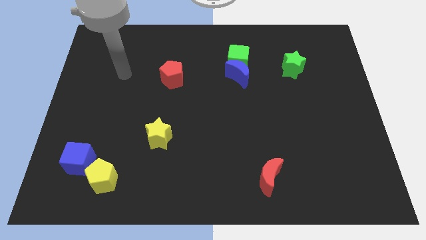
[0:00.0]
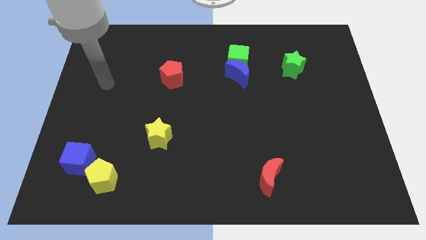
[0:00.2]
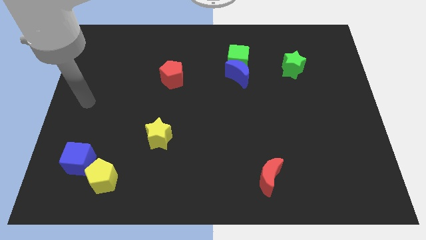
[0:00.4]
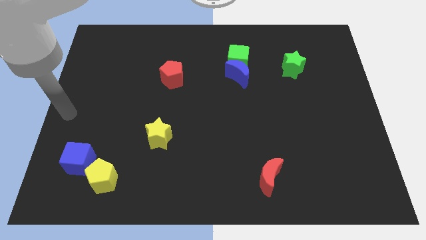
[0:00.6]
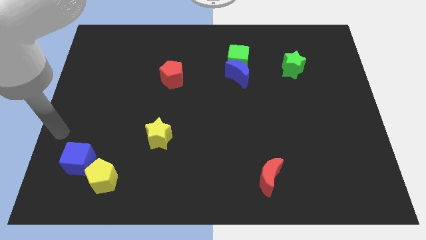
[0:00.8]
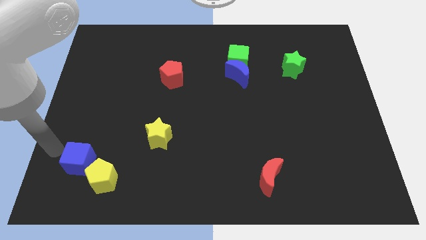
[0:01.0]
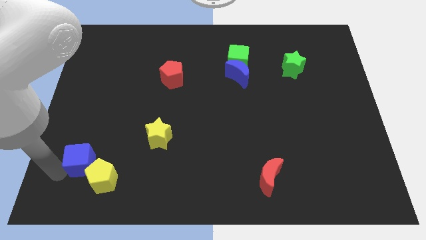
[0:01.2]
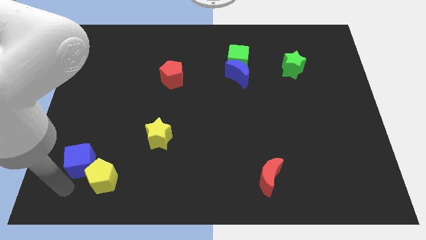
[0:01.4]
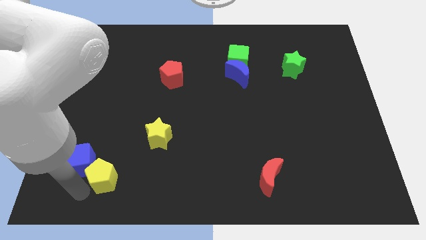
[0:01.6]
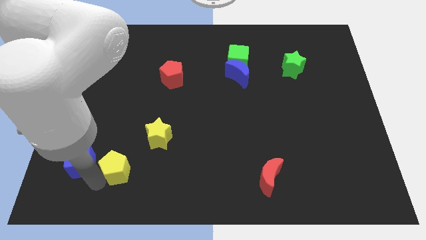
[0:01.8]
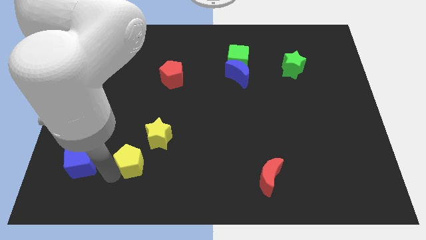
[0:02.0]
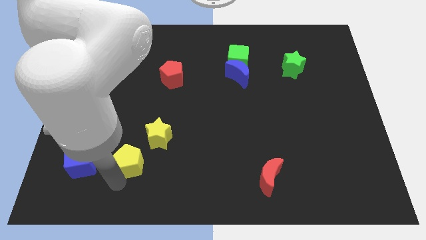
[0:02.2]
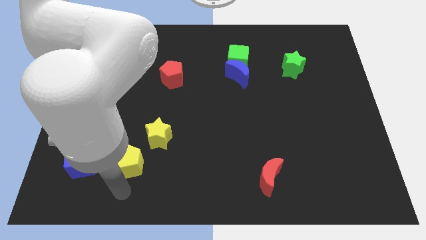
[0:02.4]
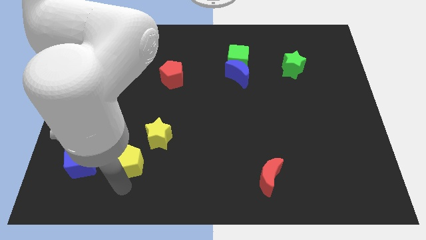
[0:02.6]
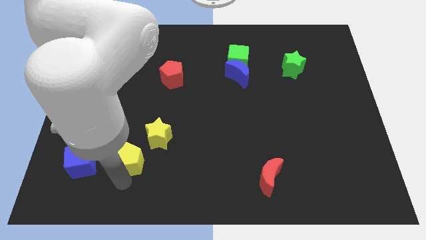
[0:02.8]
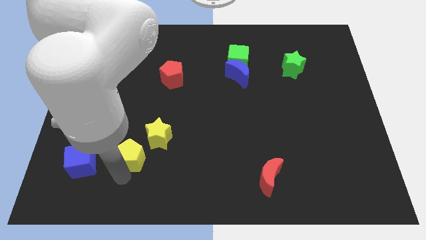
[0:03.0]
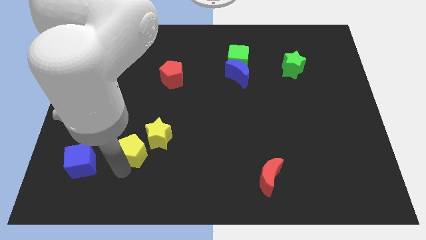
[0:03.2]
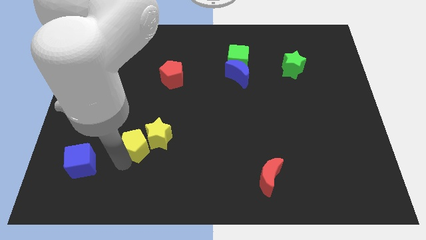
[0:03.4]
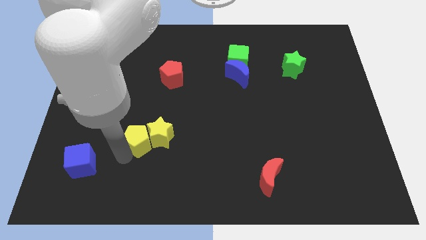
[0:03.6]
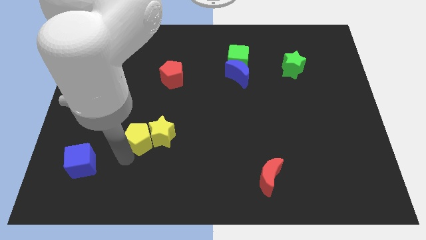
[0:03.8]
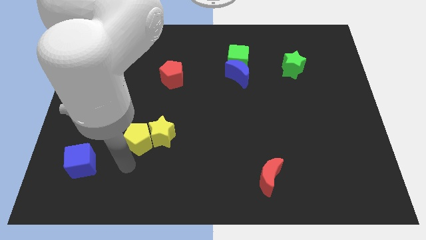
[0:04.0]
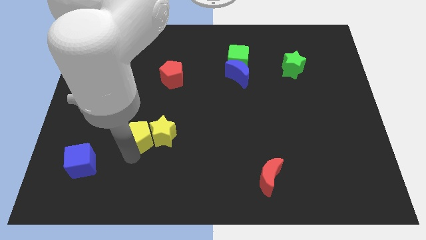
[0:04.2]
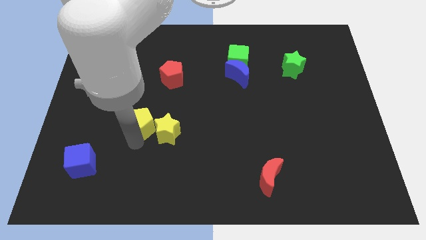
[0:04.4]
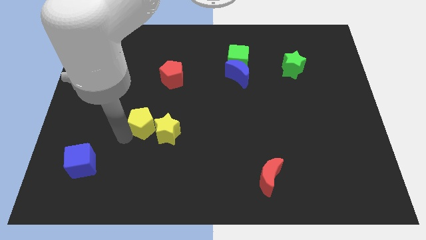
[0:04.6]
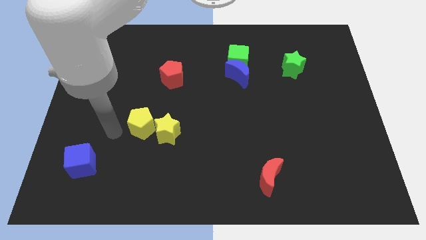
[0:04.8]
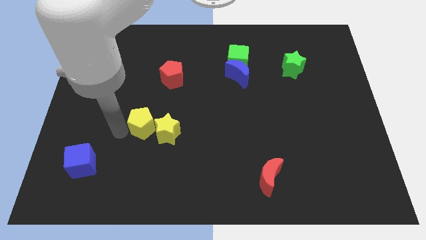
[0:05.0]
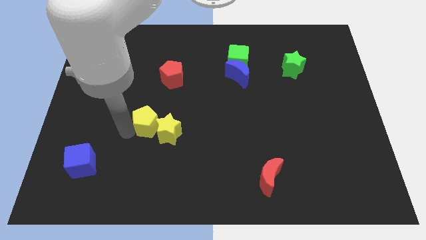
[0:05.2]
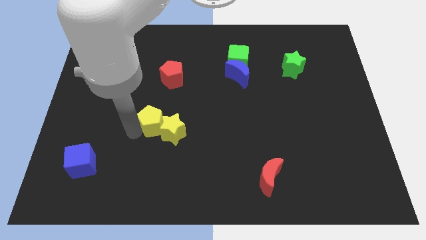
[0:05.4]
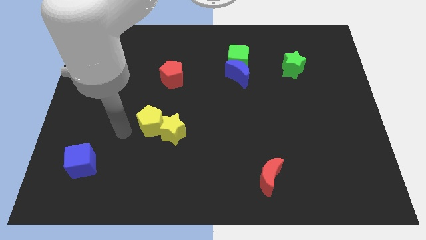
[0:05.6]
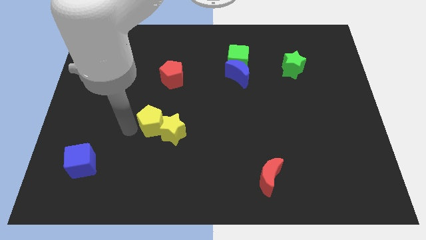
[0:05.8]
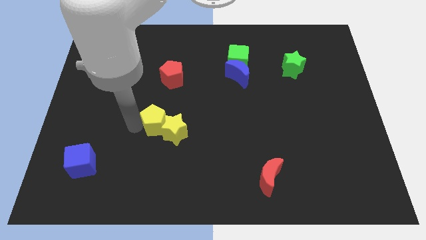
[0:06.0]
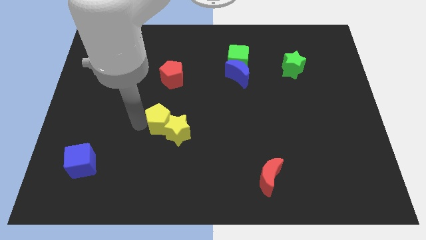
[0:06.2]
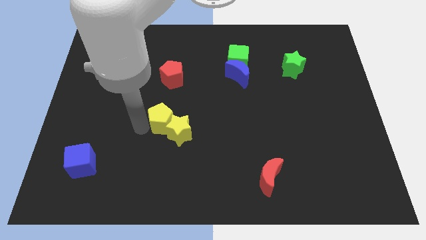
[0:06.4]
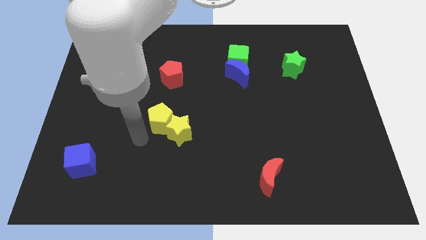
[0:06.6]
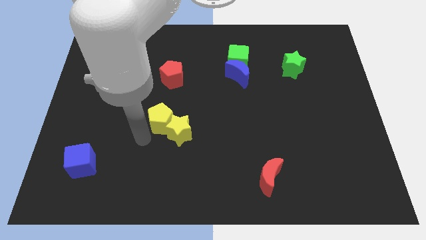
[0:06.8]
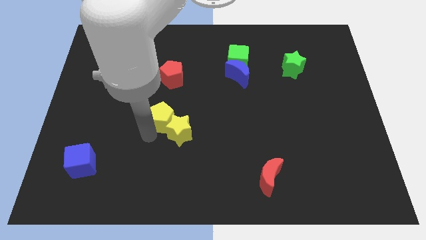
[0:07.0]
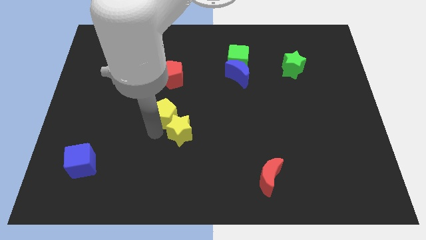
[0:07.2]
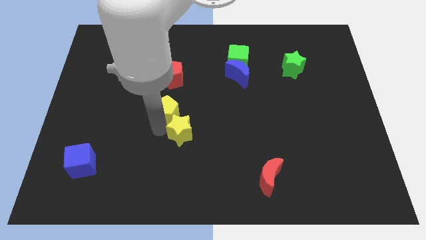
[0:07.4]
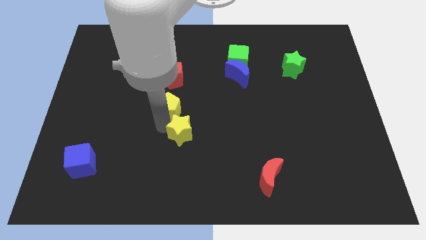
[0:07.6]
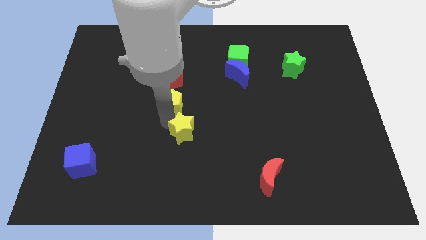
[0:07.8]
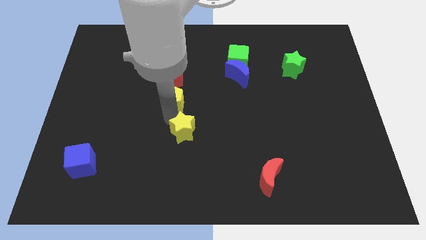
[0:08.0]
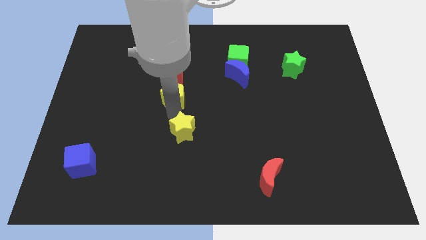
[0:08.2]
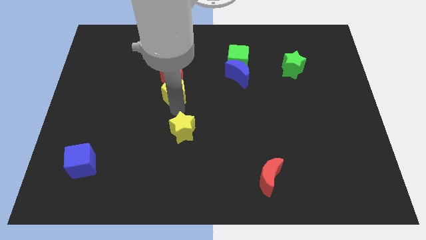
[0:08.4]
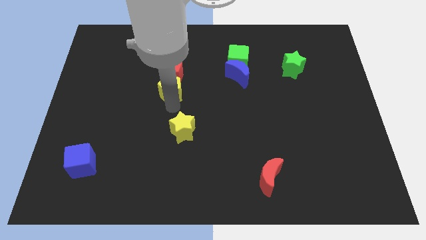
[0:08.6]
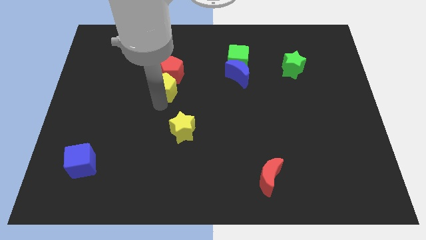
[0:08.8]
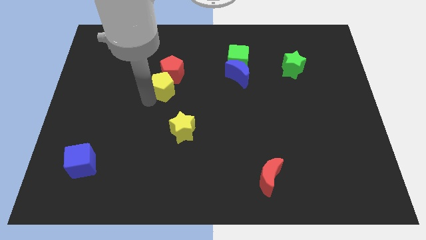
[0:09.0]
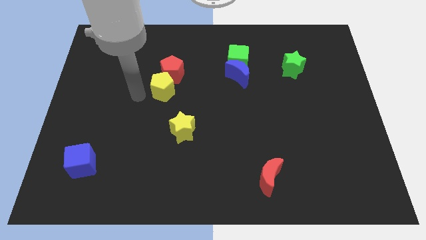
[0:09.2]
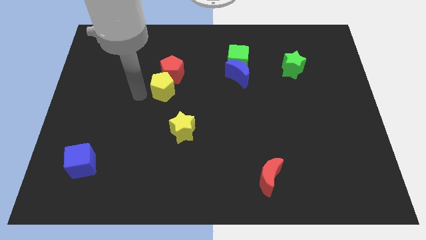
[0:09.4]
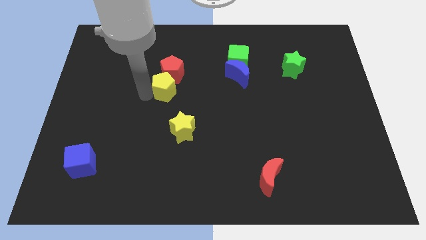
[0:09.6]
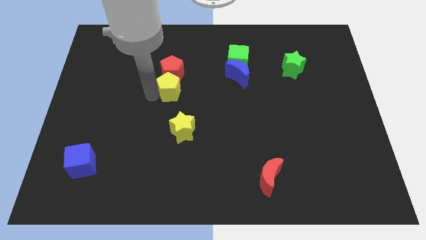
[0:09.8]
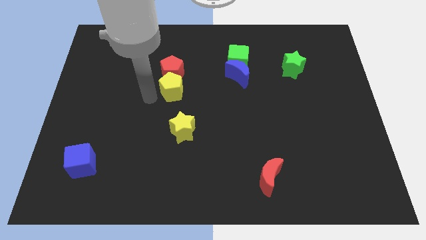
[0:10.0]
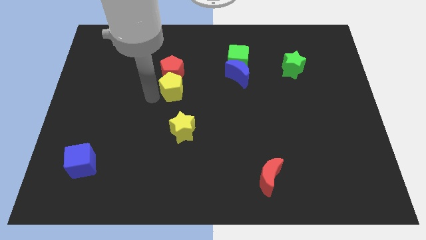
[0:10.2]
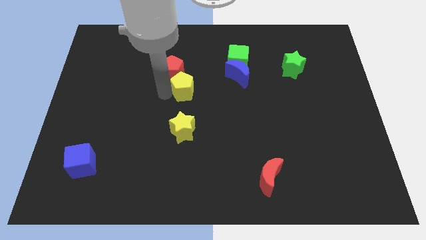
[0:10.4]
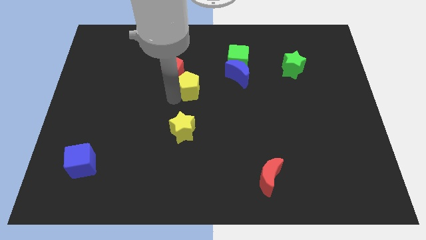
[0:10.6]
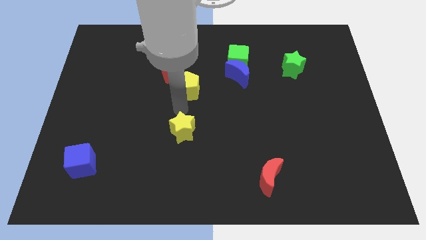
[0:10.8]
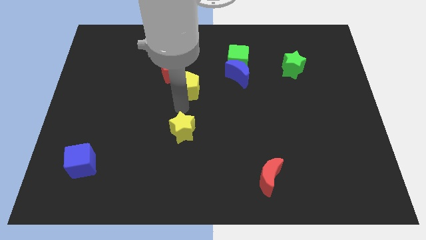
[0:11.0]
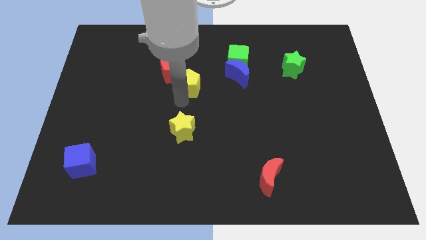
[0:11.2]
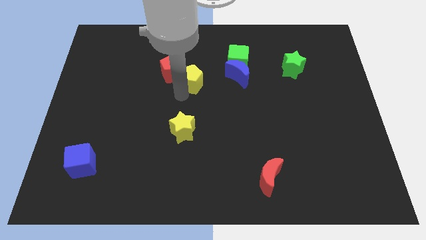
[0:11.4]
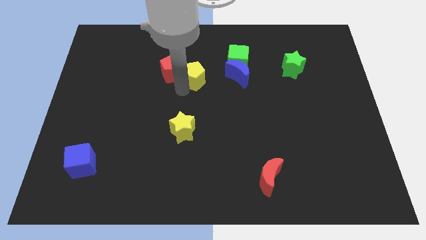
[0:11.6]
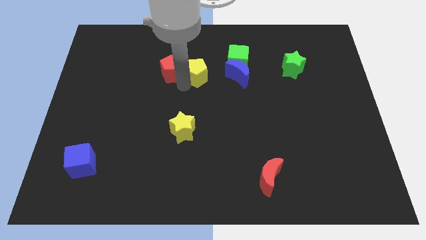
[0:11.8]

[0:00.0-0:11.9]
push the yellow pentagon to the left of the green cube

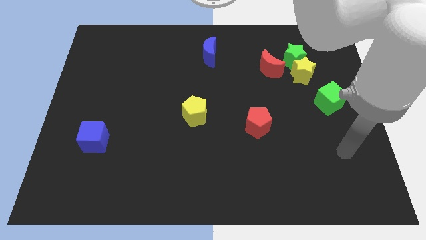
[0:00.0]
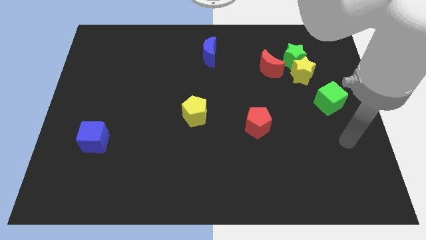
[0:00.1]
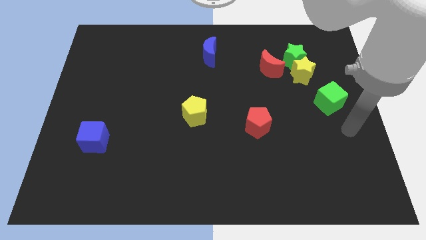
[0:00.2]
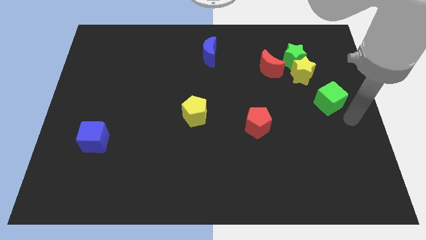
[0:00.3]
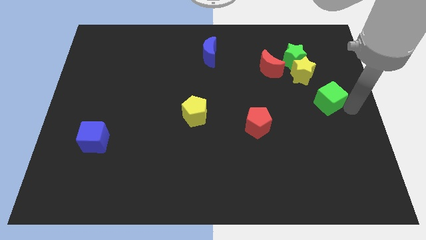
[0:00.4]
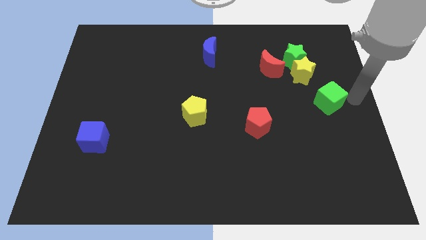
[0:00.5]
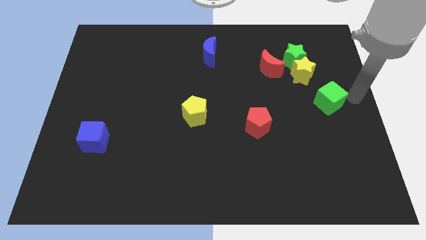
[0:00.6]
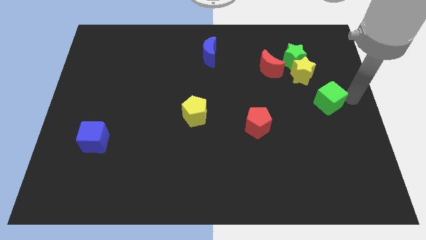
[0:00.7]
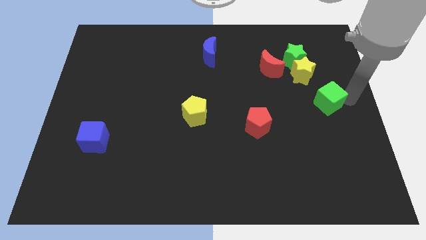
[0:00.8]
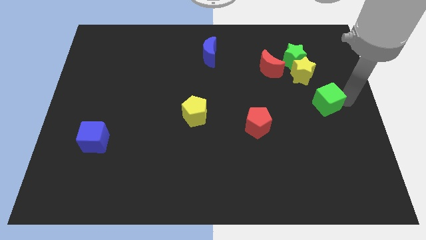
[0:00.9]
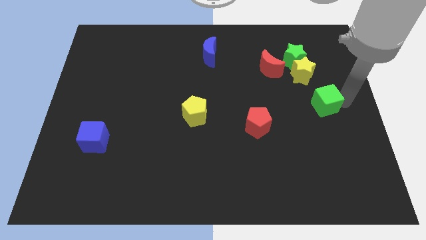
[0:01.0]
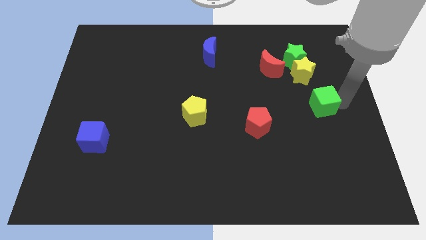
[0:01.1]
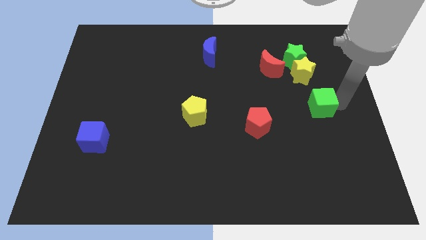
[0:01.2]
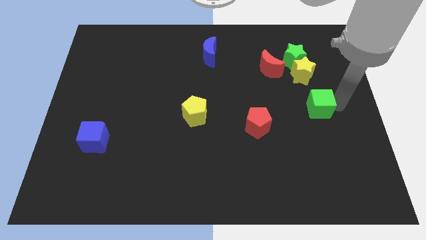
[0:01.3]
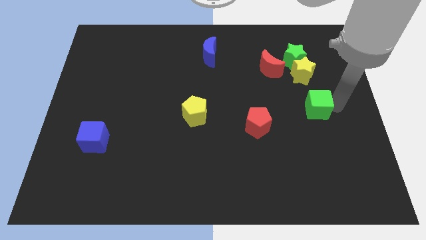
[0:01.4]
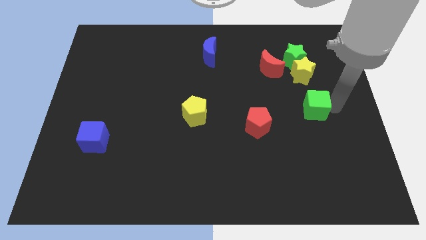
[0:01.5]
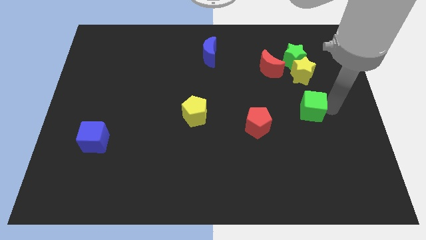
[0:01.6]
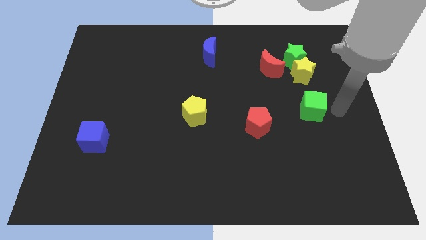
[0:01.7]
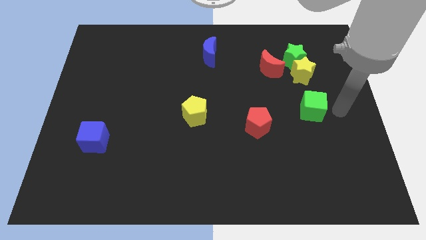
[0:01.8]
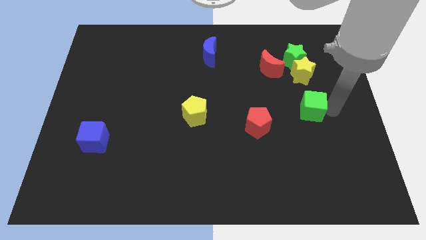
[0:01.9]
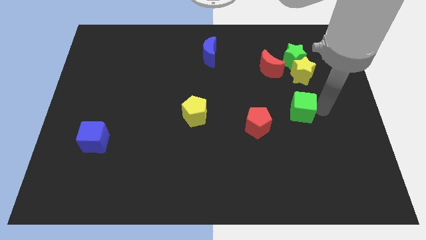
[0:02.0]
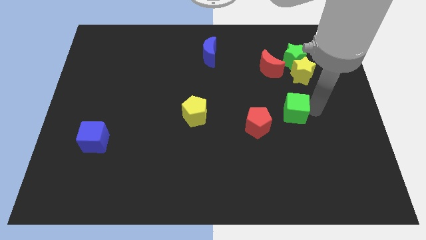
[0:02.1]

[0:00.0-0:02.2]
slide the green cube diagonally up and to the right of the red pentagon
